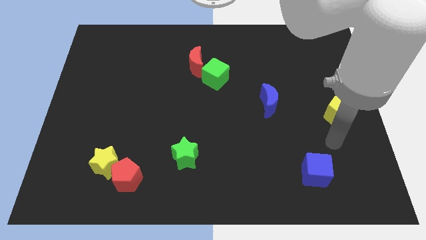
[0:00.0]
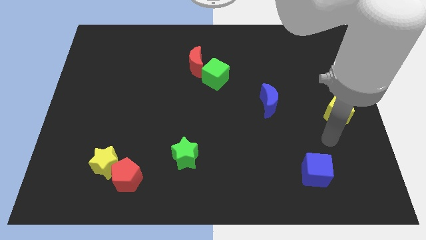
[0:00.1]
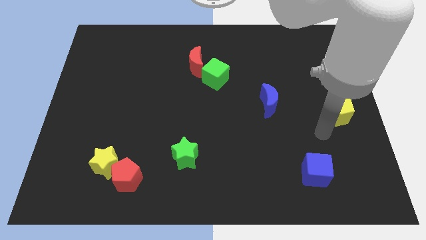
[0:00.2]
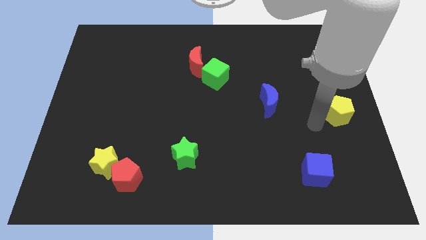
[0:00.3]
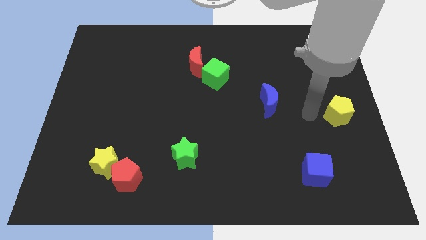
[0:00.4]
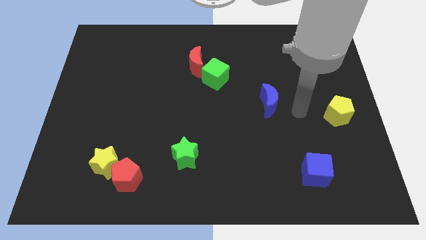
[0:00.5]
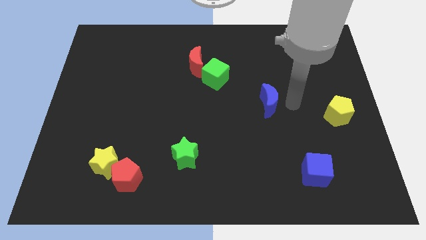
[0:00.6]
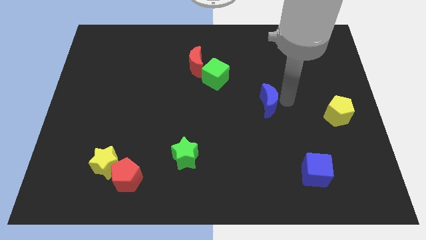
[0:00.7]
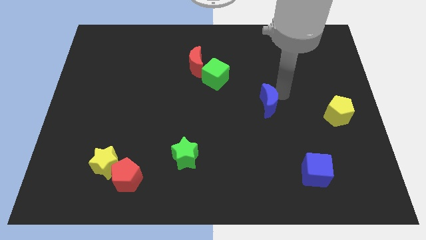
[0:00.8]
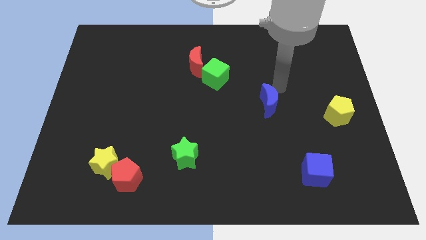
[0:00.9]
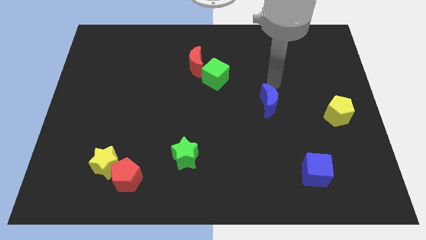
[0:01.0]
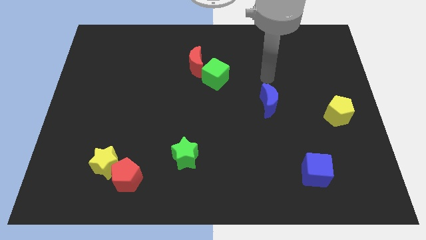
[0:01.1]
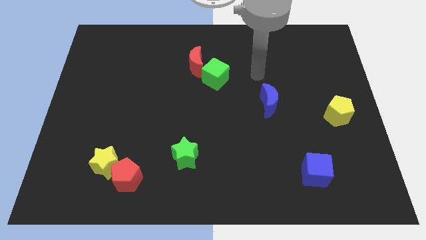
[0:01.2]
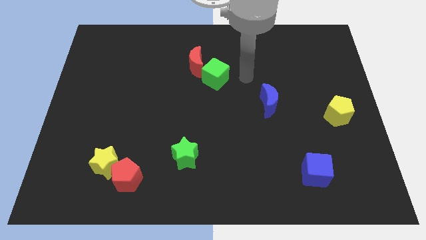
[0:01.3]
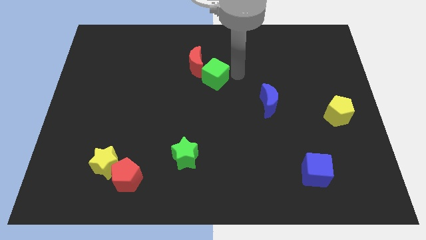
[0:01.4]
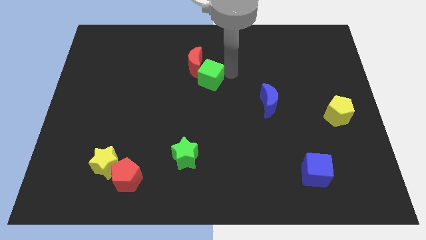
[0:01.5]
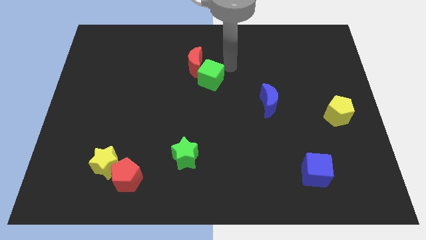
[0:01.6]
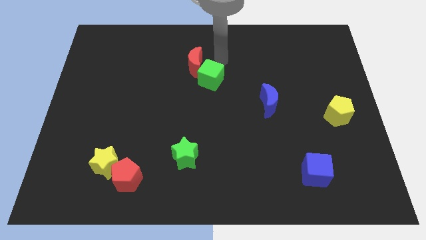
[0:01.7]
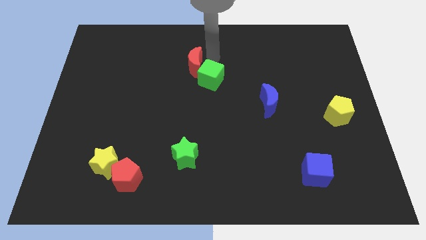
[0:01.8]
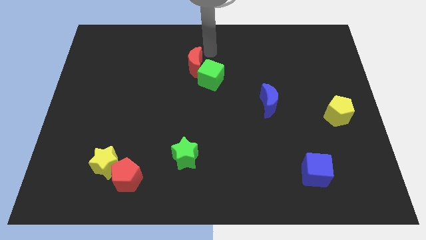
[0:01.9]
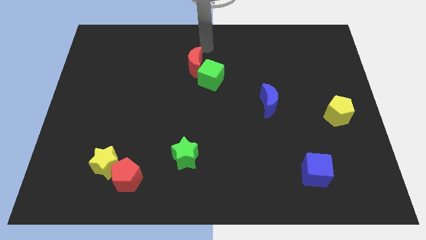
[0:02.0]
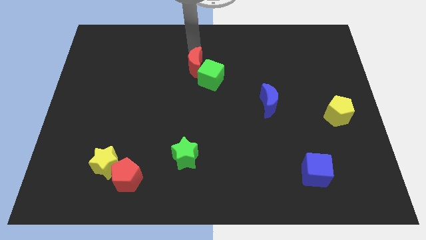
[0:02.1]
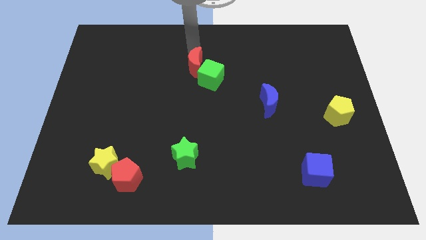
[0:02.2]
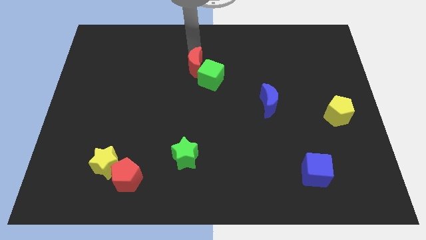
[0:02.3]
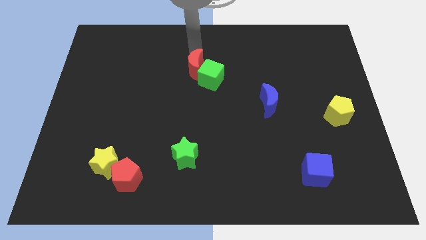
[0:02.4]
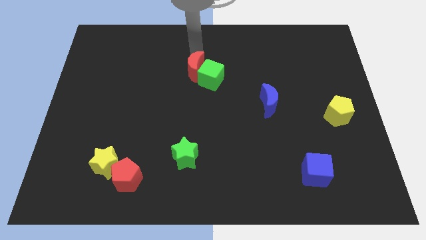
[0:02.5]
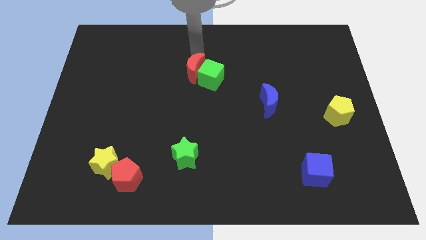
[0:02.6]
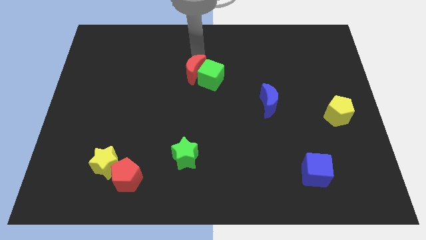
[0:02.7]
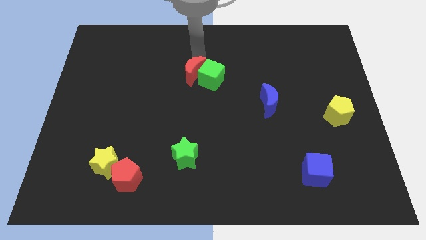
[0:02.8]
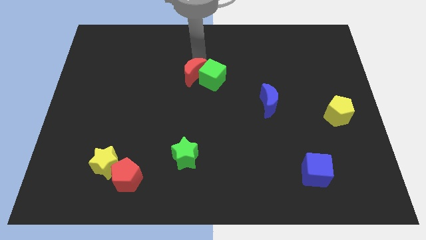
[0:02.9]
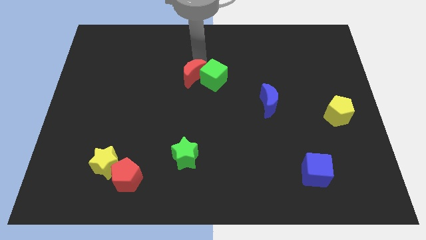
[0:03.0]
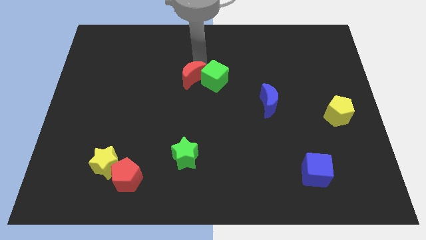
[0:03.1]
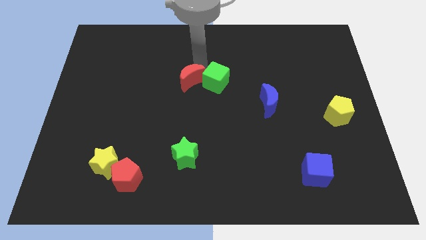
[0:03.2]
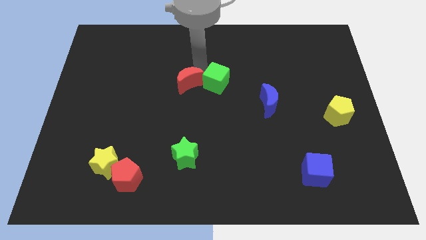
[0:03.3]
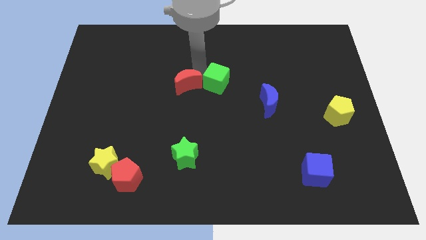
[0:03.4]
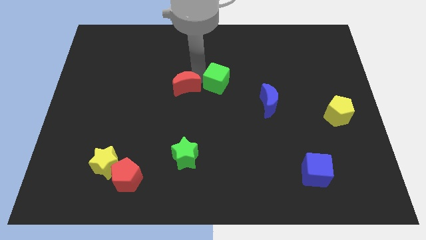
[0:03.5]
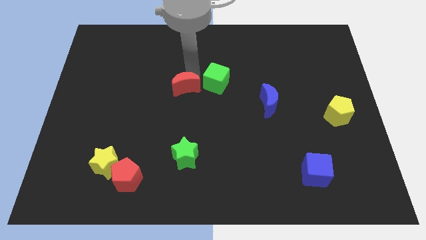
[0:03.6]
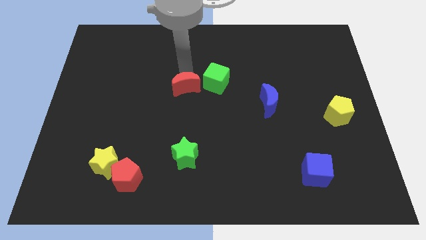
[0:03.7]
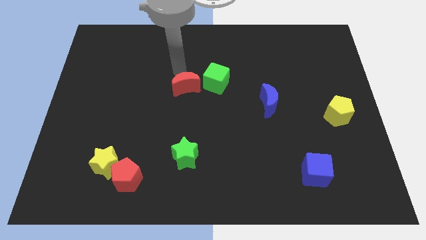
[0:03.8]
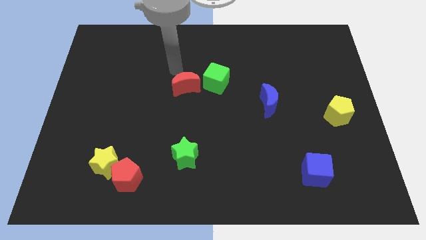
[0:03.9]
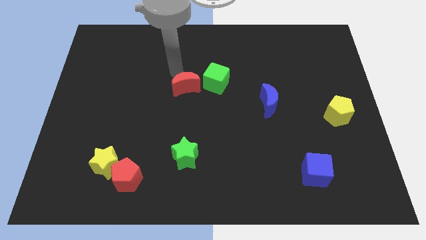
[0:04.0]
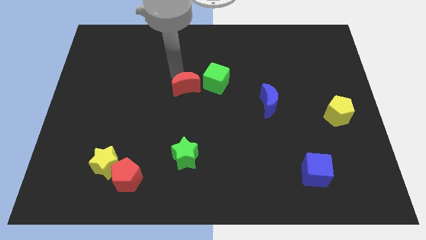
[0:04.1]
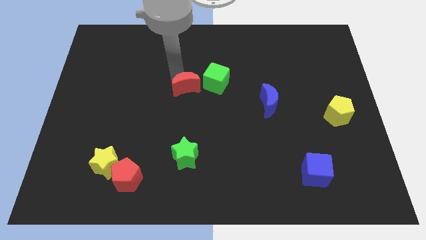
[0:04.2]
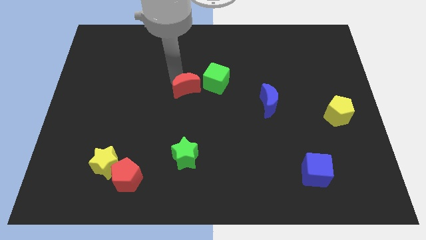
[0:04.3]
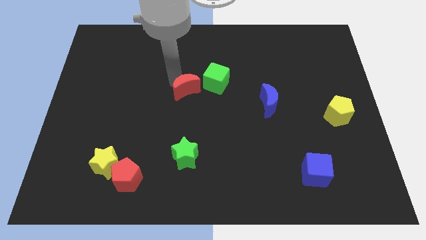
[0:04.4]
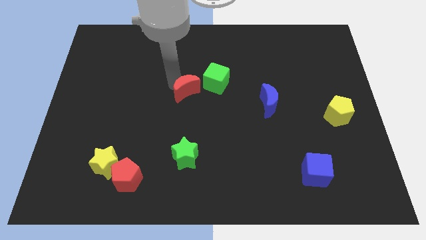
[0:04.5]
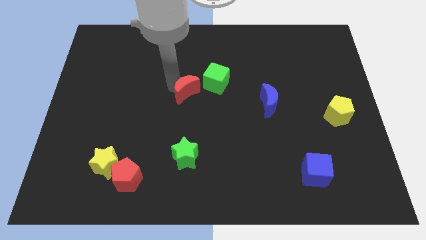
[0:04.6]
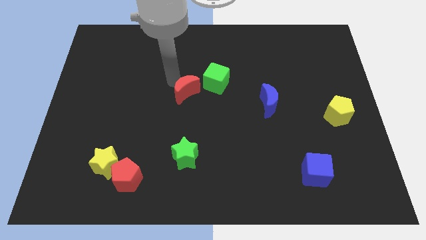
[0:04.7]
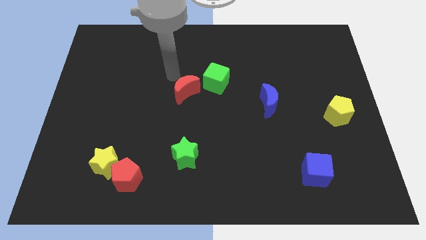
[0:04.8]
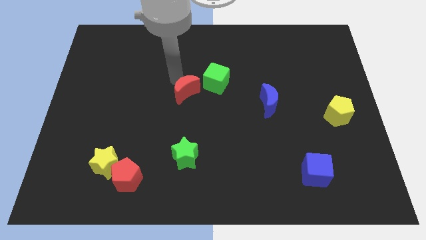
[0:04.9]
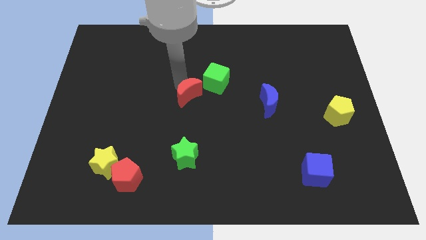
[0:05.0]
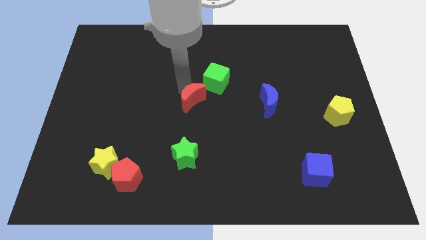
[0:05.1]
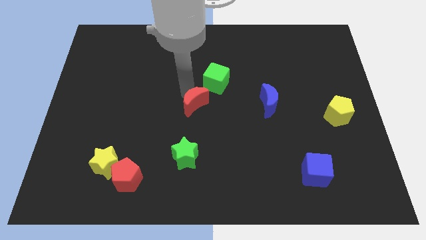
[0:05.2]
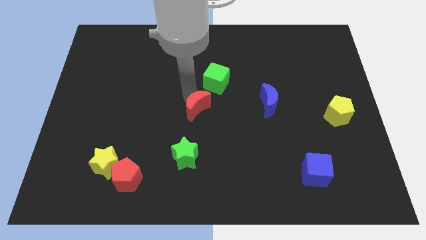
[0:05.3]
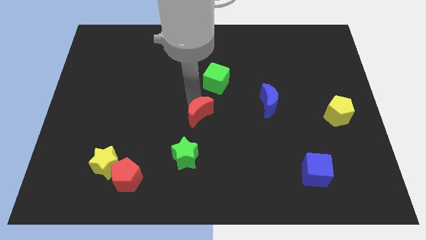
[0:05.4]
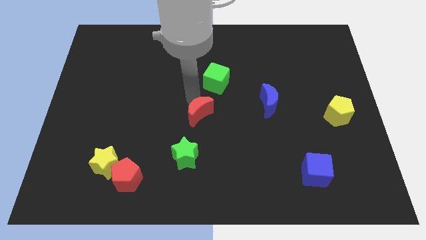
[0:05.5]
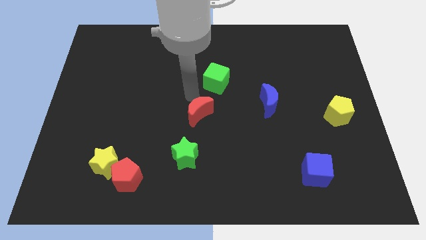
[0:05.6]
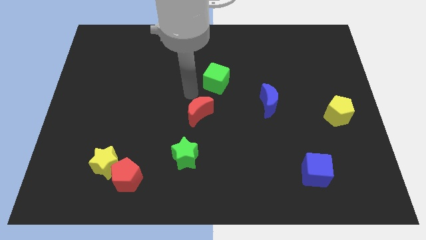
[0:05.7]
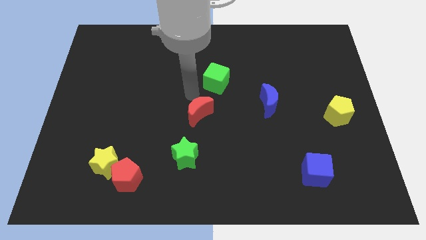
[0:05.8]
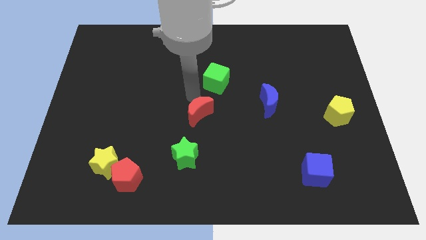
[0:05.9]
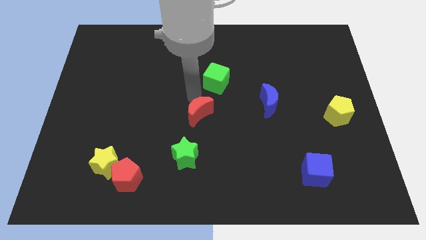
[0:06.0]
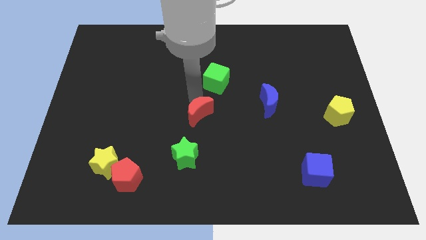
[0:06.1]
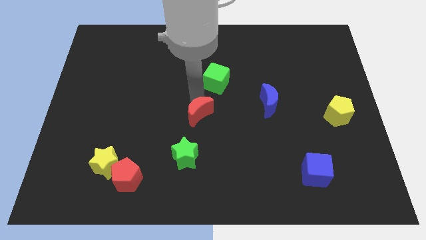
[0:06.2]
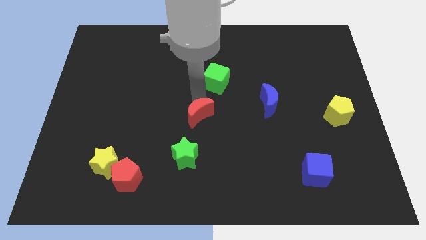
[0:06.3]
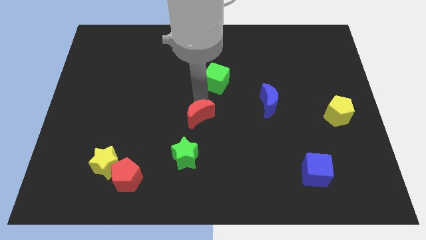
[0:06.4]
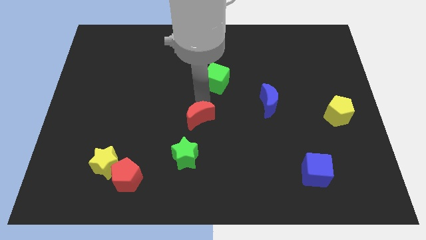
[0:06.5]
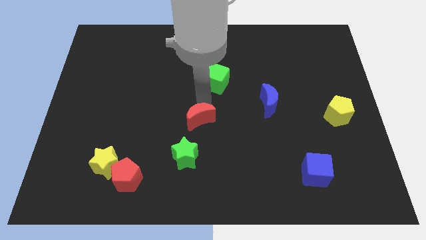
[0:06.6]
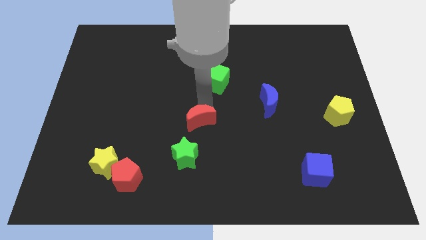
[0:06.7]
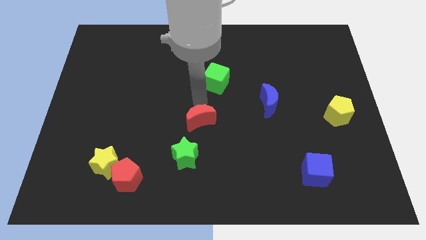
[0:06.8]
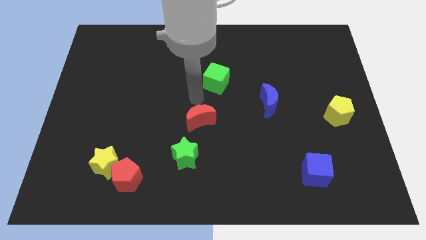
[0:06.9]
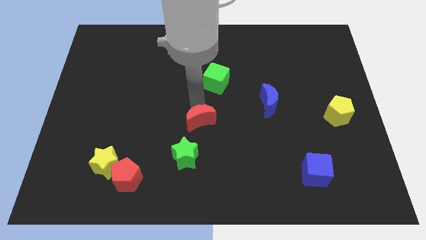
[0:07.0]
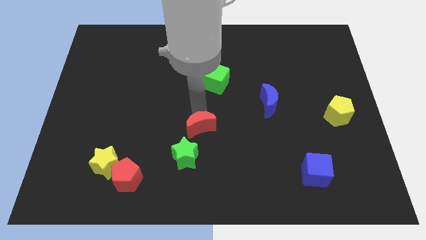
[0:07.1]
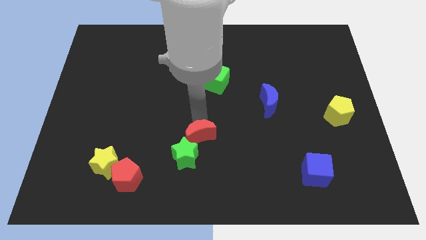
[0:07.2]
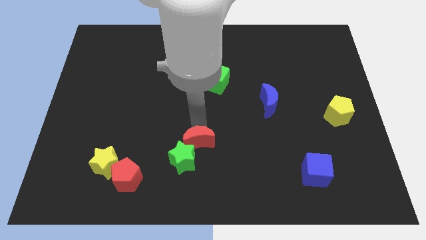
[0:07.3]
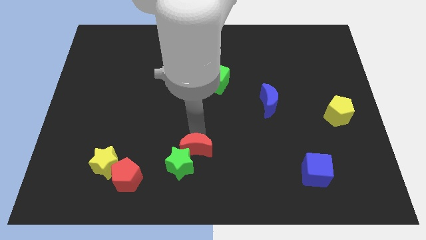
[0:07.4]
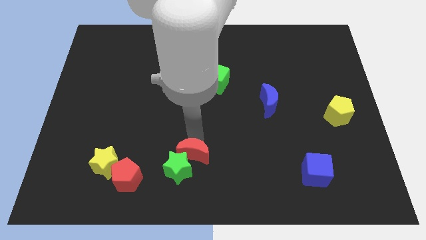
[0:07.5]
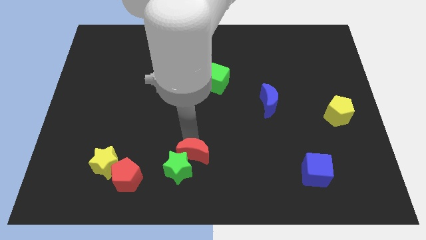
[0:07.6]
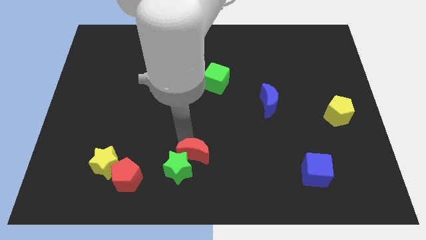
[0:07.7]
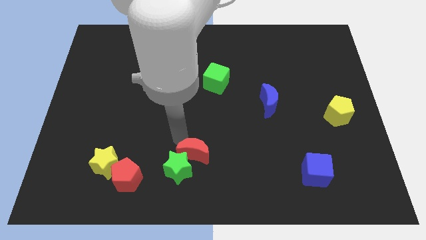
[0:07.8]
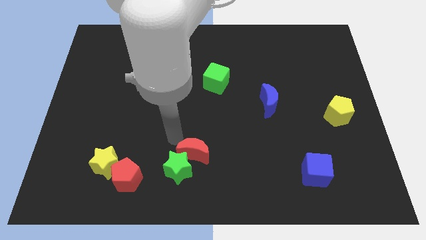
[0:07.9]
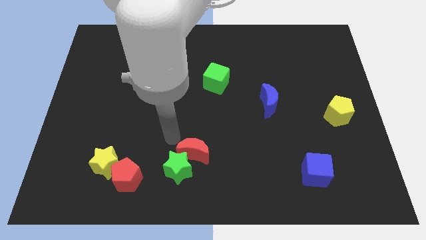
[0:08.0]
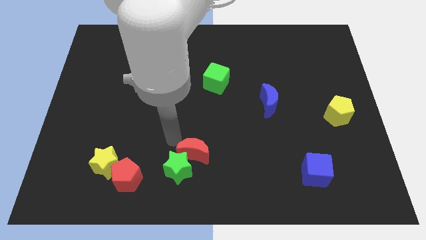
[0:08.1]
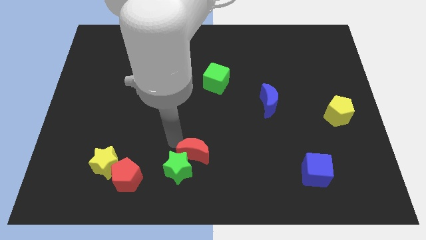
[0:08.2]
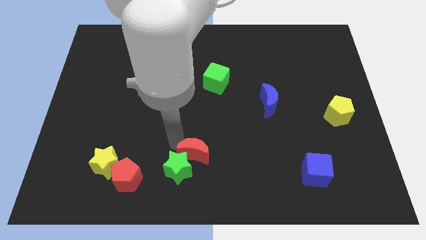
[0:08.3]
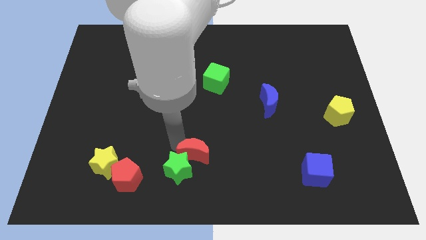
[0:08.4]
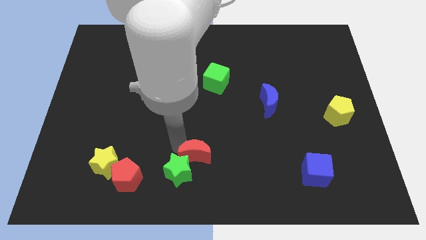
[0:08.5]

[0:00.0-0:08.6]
push the red moon to the bottom side
